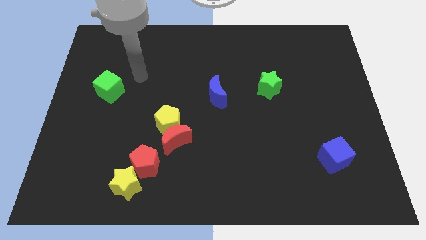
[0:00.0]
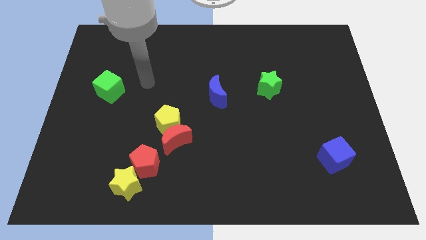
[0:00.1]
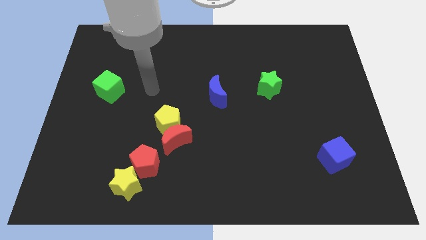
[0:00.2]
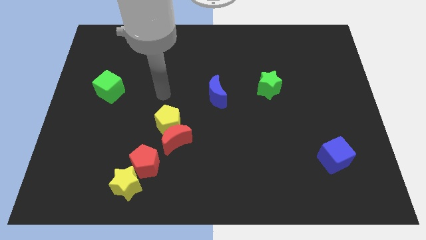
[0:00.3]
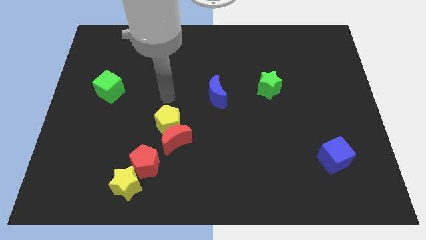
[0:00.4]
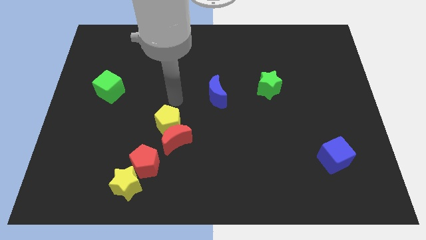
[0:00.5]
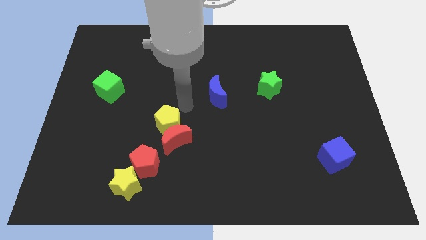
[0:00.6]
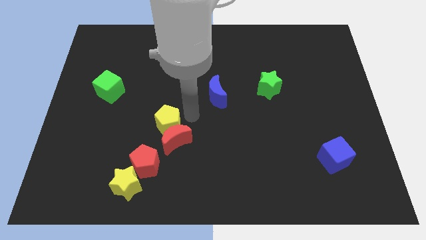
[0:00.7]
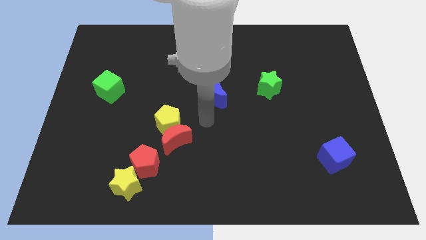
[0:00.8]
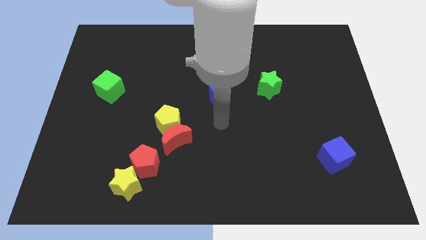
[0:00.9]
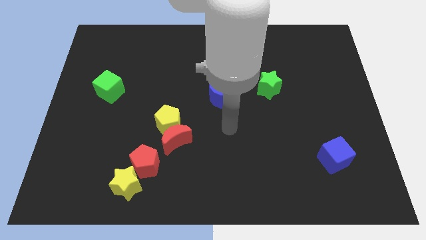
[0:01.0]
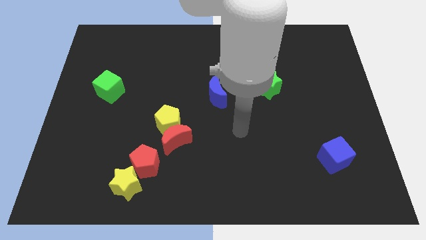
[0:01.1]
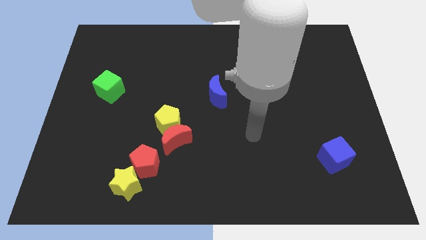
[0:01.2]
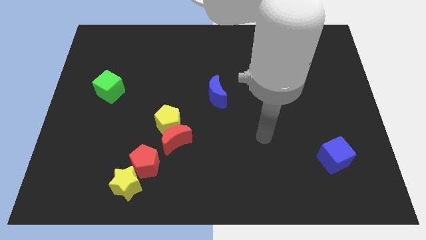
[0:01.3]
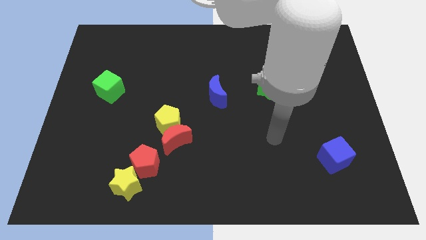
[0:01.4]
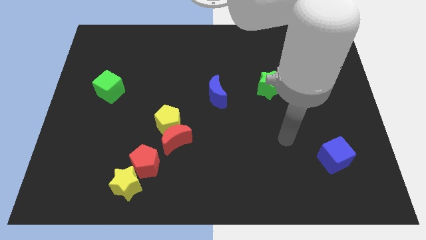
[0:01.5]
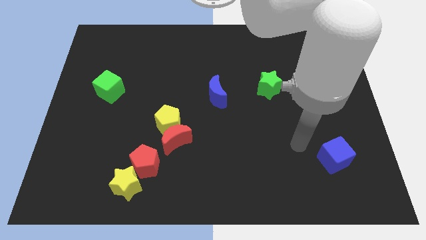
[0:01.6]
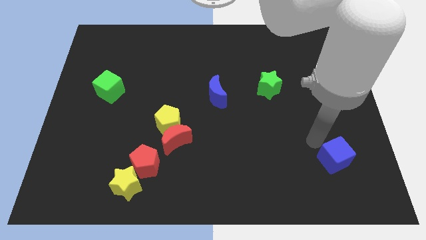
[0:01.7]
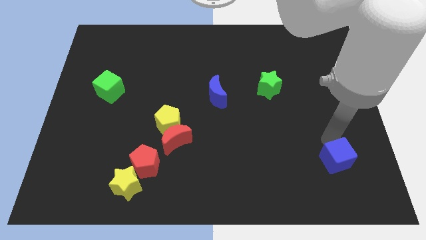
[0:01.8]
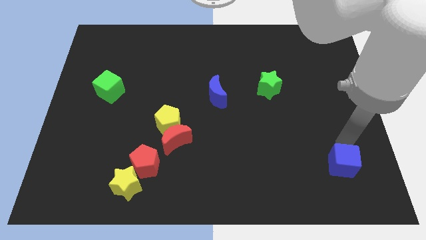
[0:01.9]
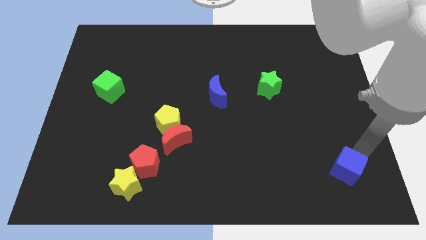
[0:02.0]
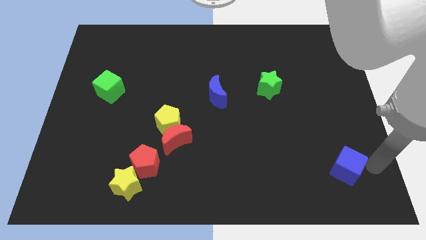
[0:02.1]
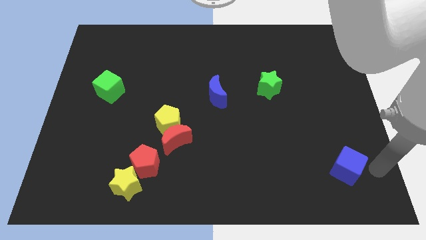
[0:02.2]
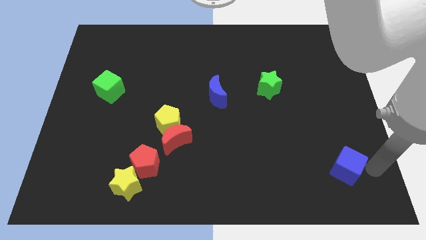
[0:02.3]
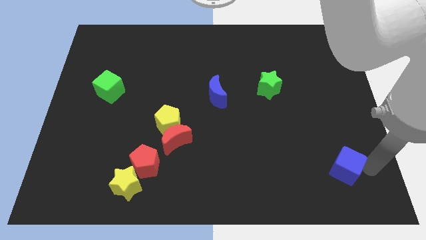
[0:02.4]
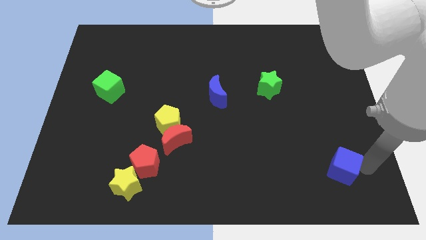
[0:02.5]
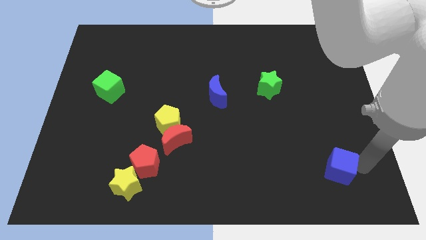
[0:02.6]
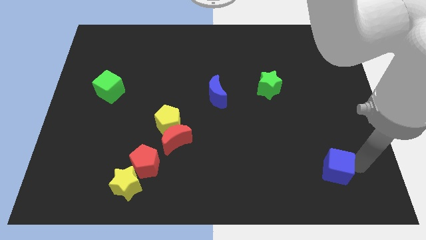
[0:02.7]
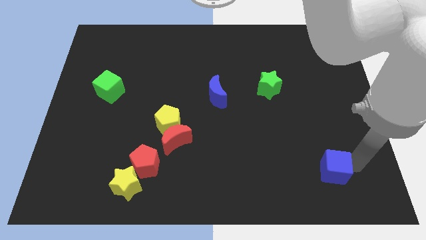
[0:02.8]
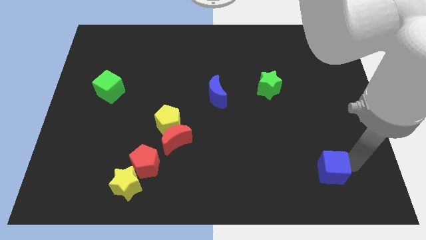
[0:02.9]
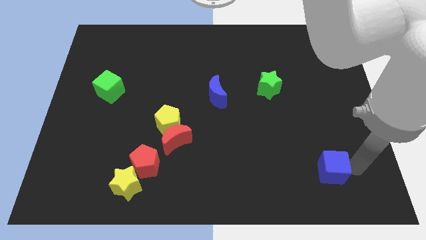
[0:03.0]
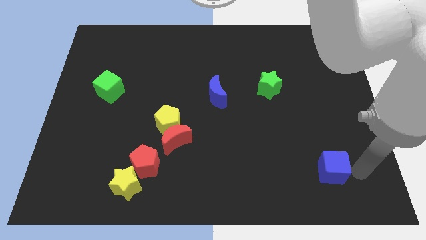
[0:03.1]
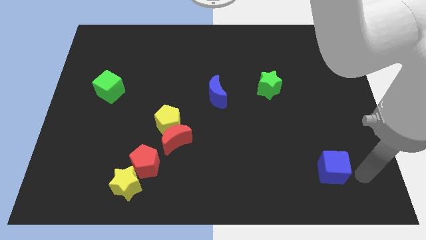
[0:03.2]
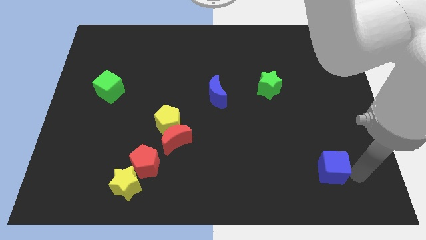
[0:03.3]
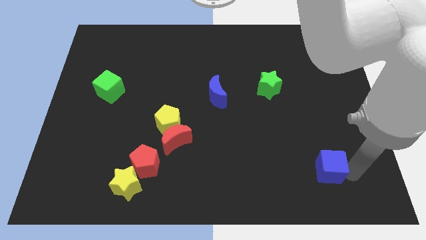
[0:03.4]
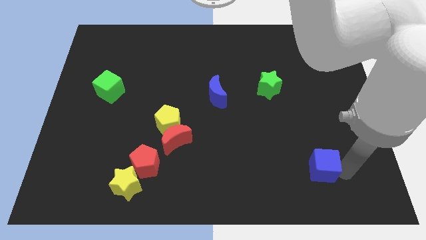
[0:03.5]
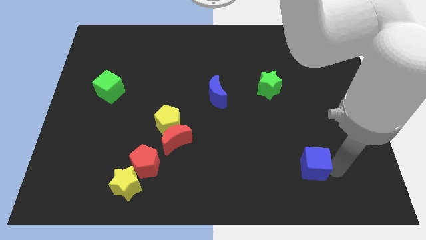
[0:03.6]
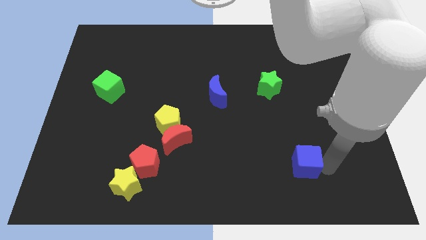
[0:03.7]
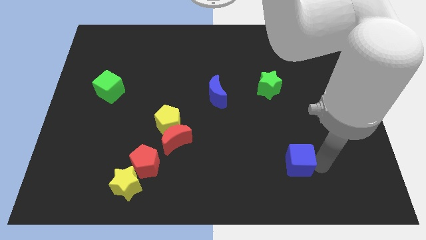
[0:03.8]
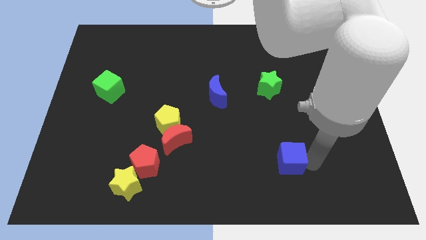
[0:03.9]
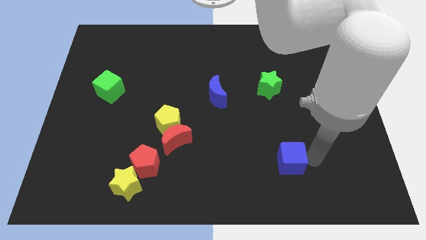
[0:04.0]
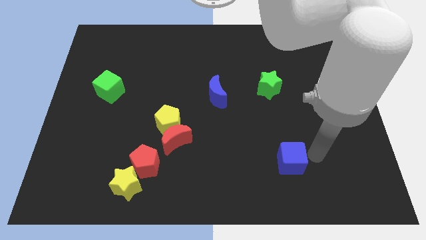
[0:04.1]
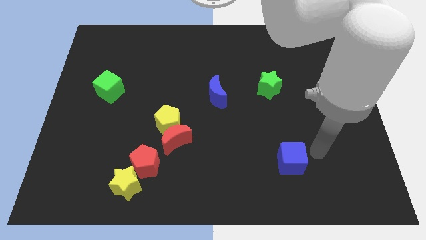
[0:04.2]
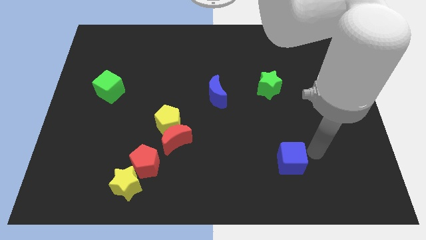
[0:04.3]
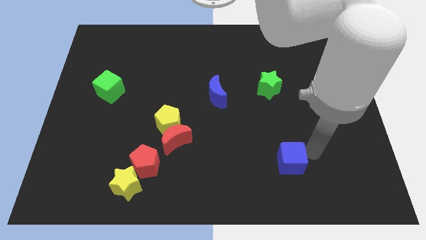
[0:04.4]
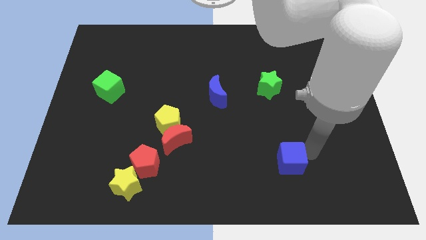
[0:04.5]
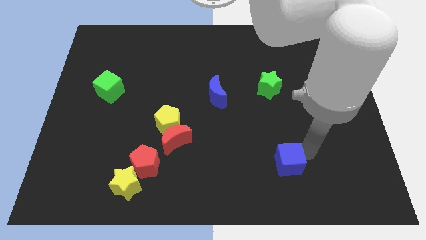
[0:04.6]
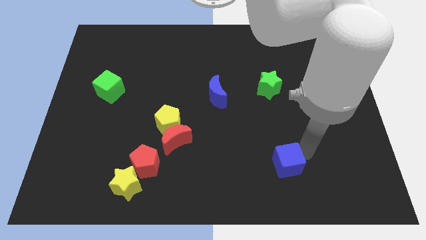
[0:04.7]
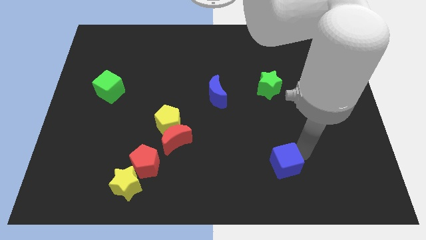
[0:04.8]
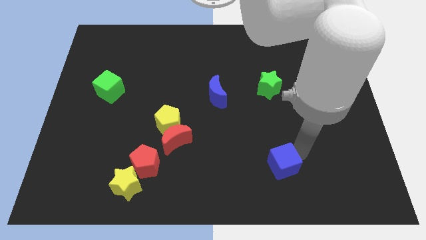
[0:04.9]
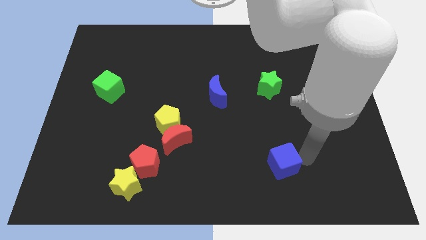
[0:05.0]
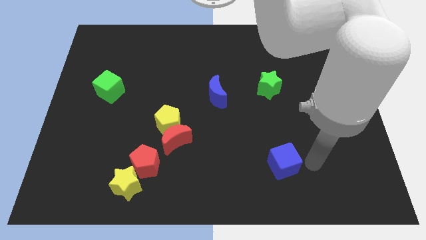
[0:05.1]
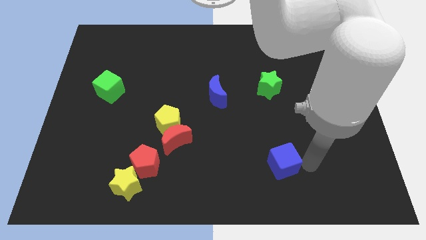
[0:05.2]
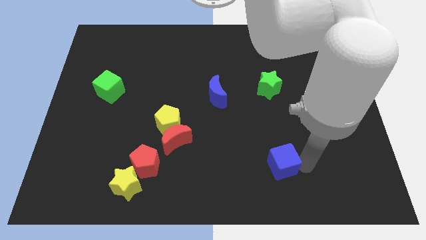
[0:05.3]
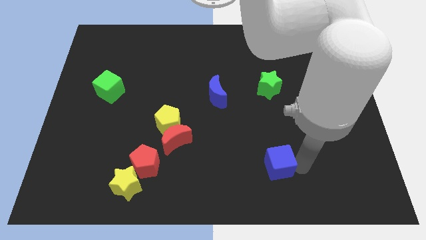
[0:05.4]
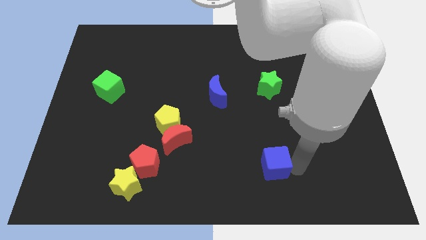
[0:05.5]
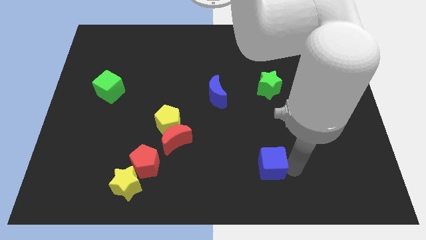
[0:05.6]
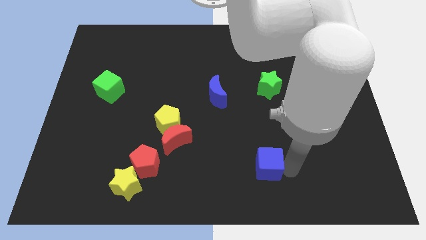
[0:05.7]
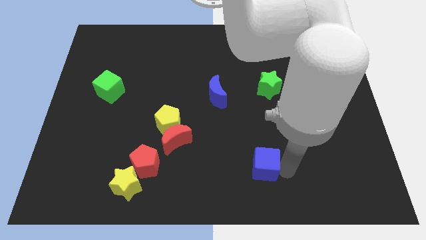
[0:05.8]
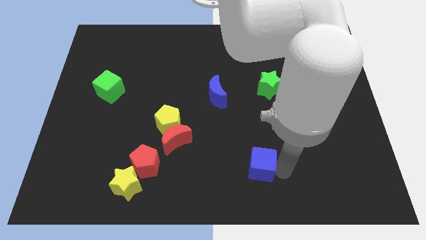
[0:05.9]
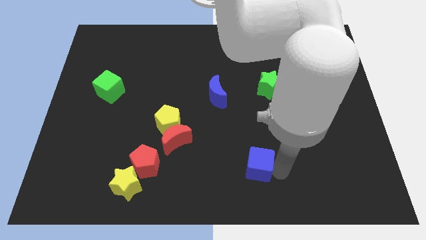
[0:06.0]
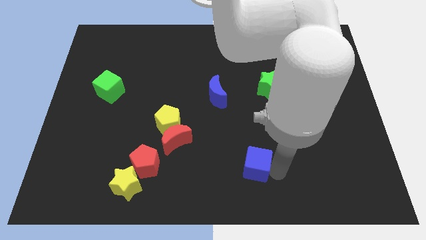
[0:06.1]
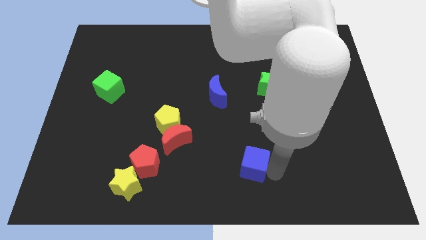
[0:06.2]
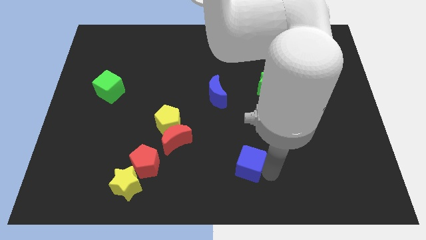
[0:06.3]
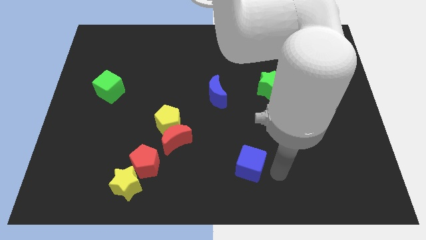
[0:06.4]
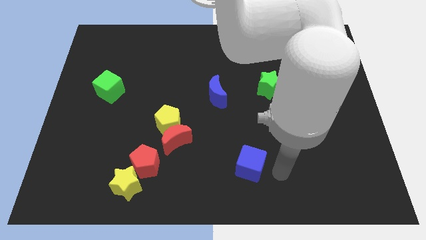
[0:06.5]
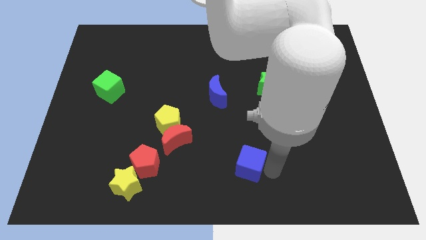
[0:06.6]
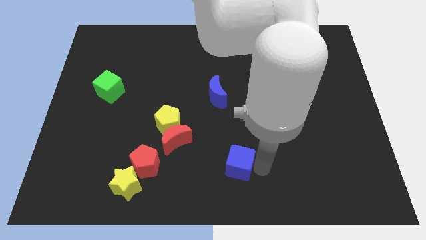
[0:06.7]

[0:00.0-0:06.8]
slide the blue cube left

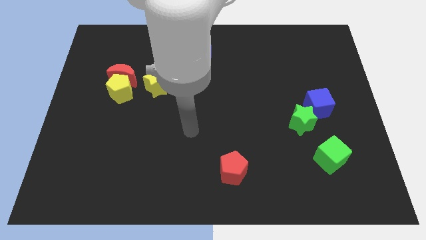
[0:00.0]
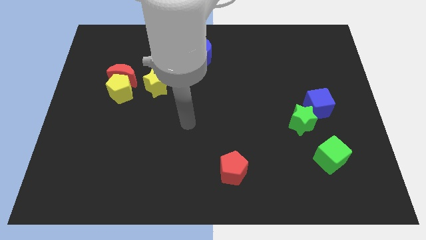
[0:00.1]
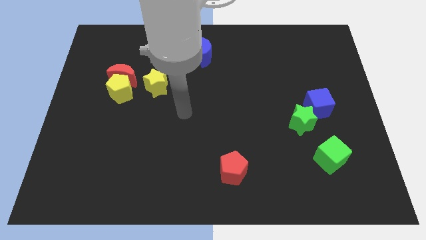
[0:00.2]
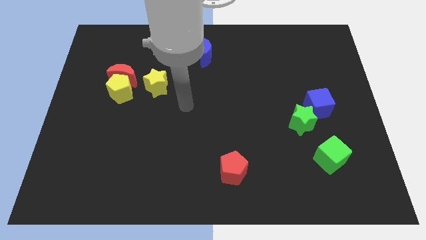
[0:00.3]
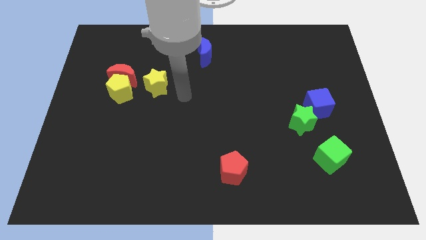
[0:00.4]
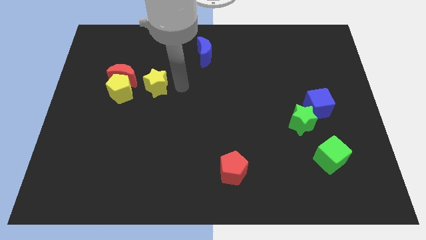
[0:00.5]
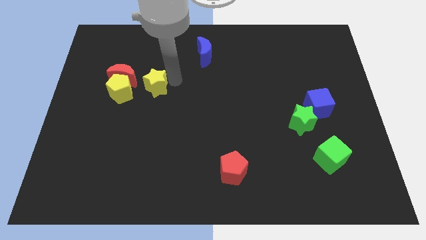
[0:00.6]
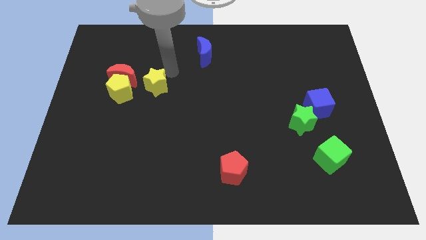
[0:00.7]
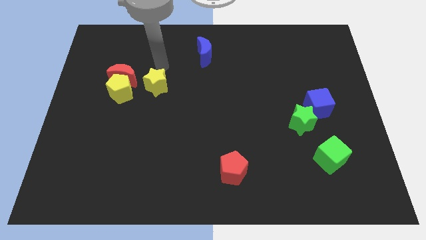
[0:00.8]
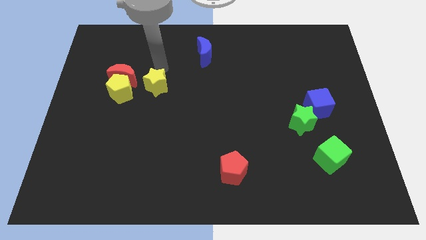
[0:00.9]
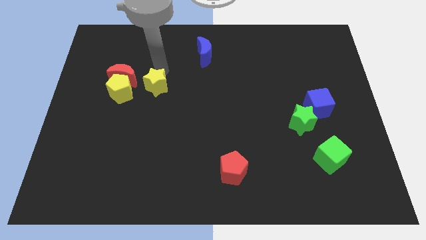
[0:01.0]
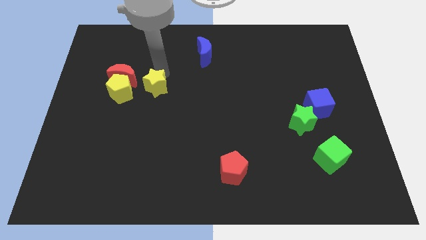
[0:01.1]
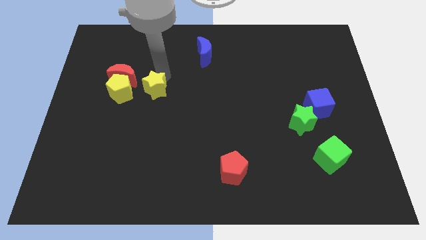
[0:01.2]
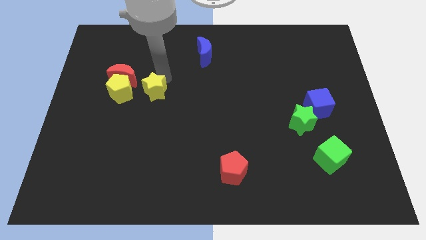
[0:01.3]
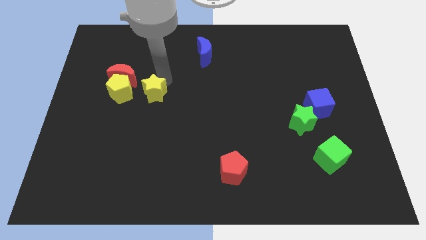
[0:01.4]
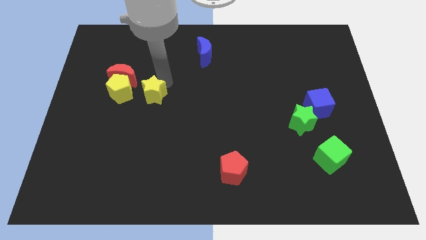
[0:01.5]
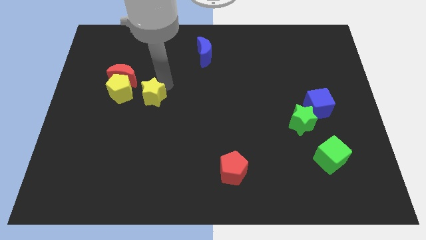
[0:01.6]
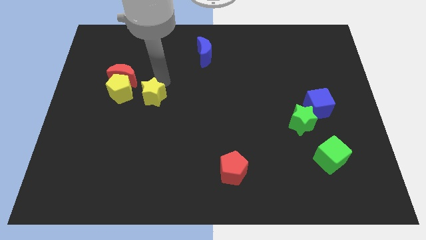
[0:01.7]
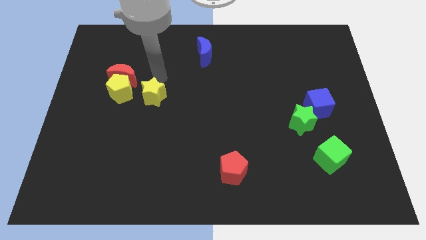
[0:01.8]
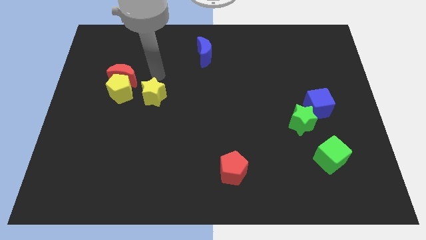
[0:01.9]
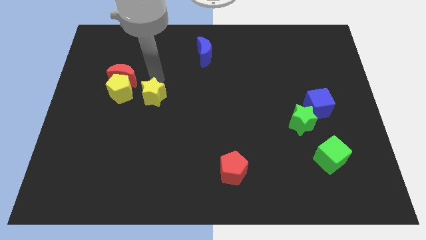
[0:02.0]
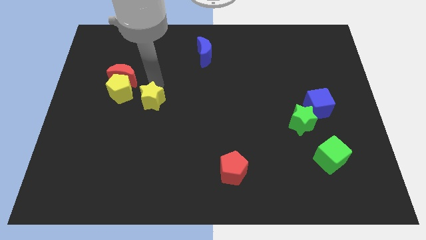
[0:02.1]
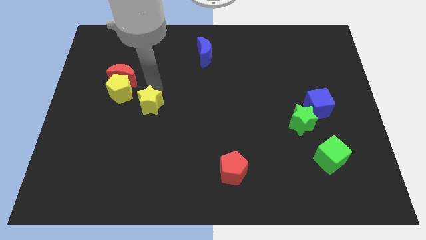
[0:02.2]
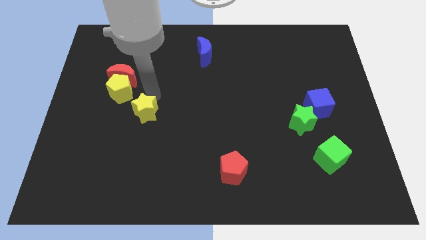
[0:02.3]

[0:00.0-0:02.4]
move the yellow star down somewhat
